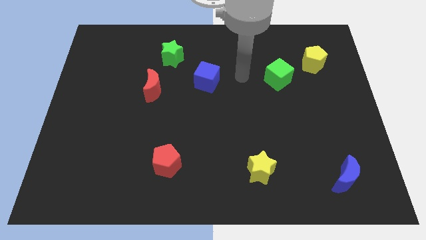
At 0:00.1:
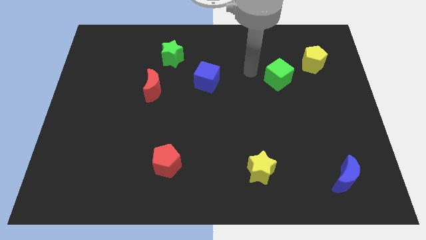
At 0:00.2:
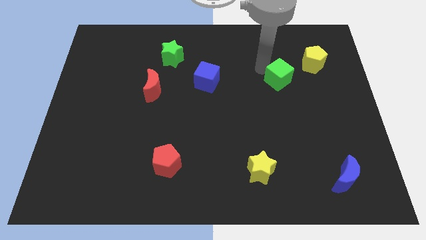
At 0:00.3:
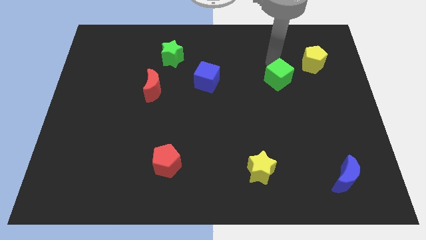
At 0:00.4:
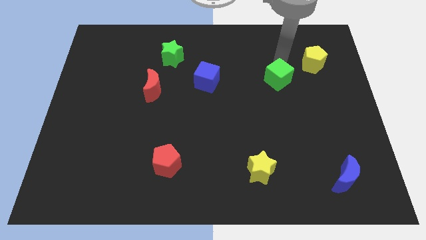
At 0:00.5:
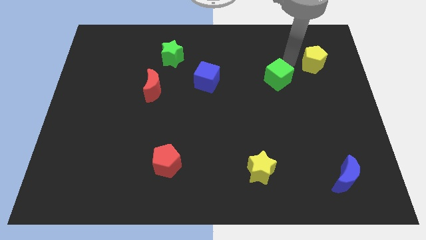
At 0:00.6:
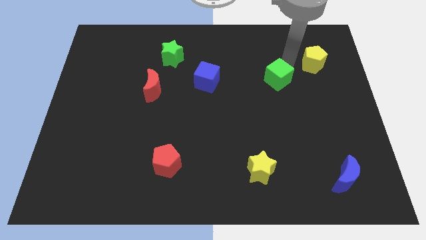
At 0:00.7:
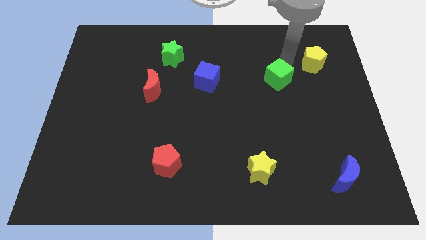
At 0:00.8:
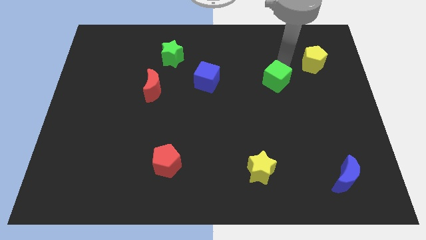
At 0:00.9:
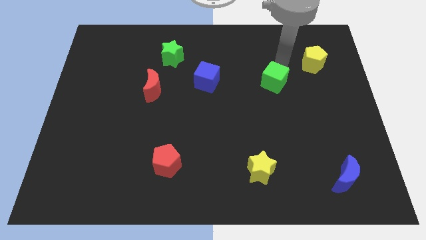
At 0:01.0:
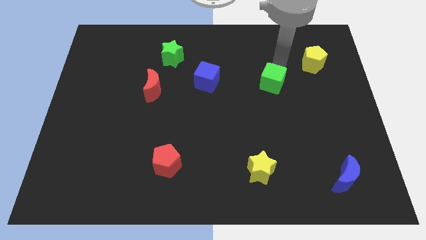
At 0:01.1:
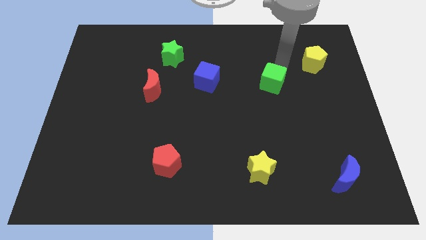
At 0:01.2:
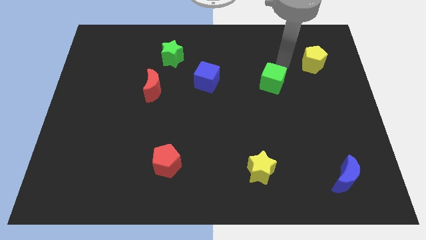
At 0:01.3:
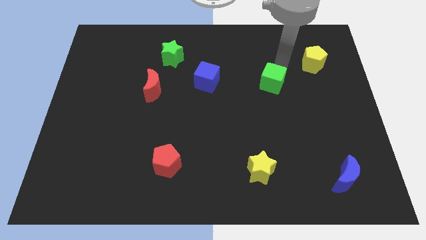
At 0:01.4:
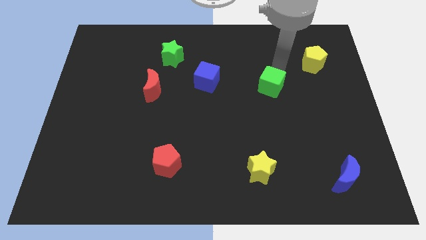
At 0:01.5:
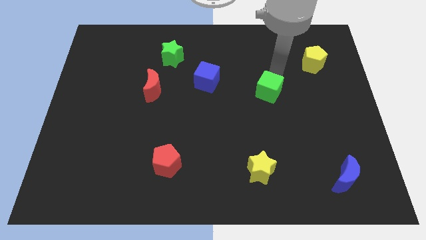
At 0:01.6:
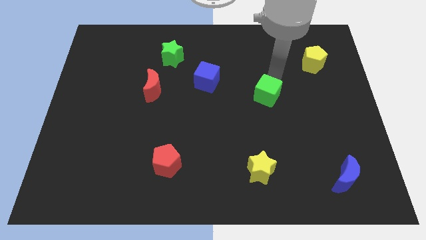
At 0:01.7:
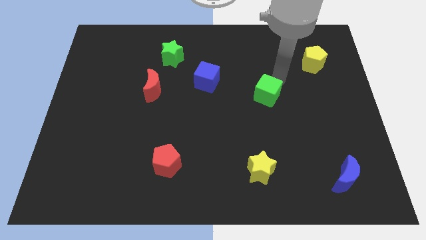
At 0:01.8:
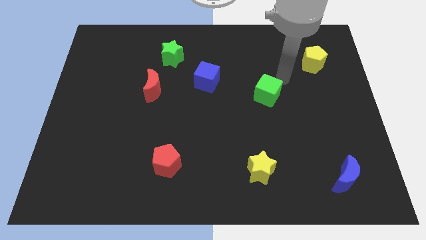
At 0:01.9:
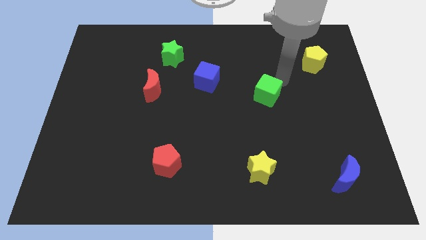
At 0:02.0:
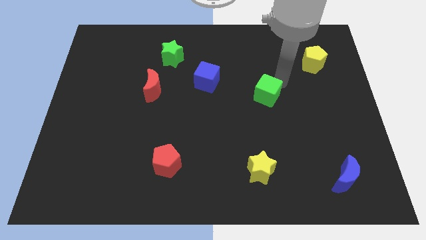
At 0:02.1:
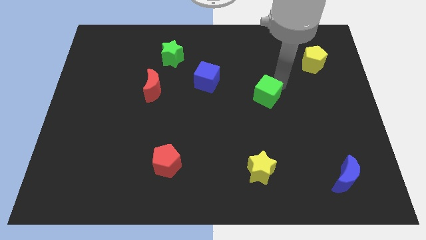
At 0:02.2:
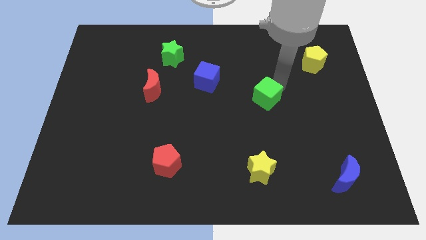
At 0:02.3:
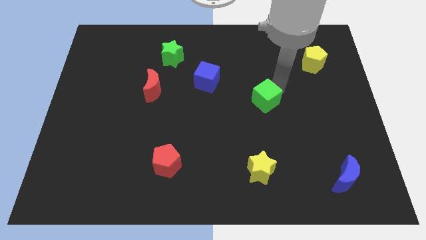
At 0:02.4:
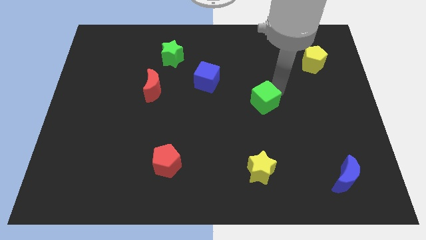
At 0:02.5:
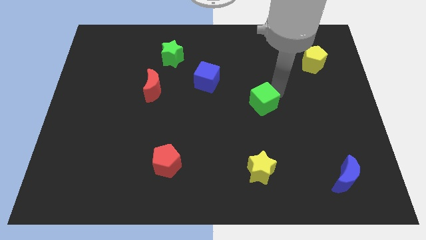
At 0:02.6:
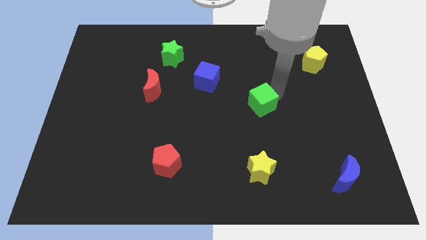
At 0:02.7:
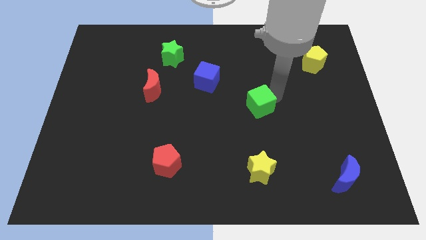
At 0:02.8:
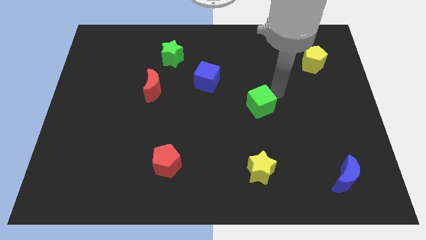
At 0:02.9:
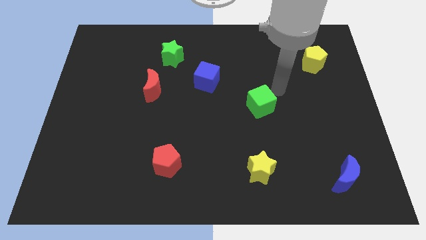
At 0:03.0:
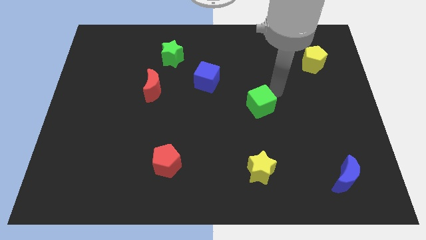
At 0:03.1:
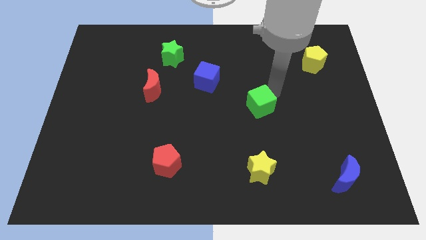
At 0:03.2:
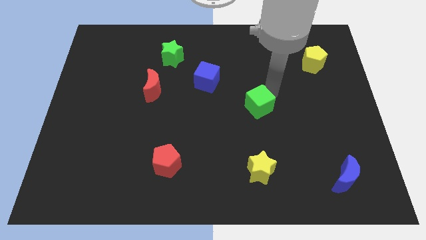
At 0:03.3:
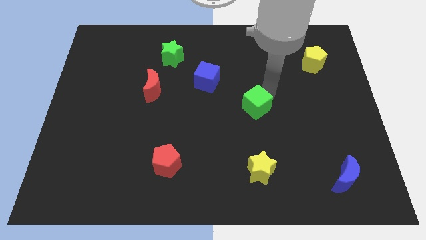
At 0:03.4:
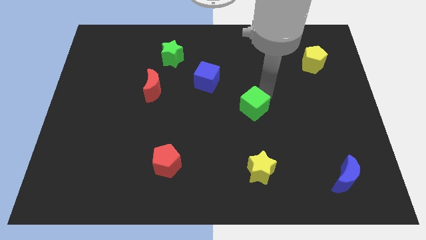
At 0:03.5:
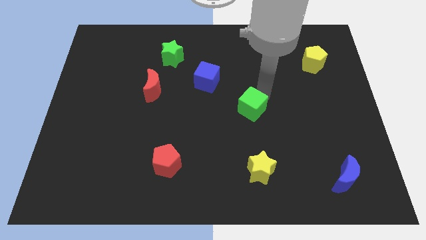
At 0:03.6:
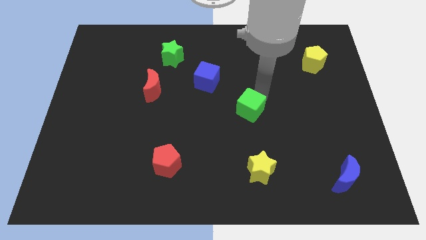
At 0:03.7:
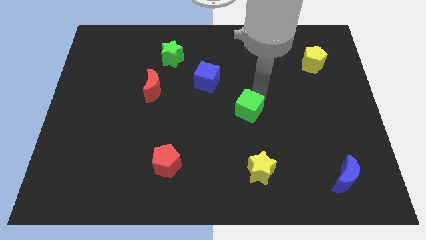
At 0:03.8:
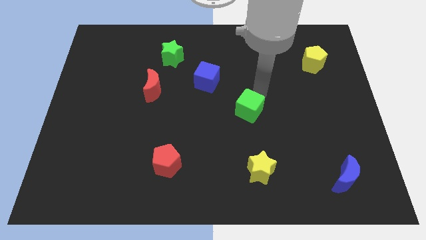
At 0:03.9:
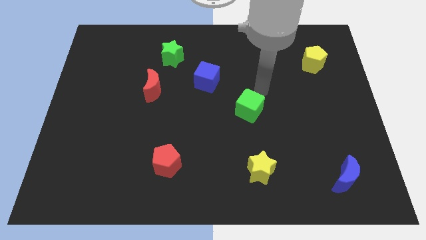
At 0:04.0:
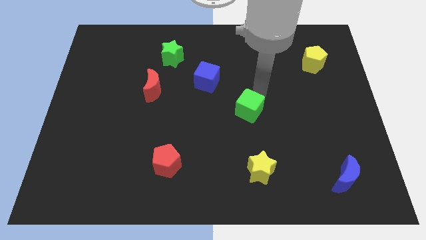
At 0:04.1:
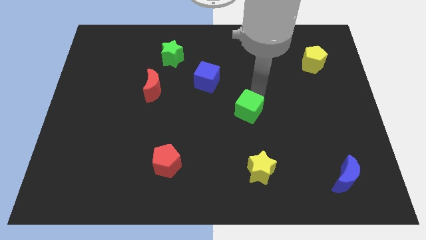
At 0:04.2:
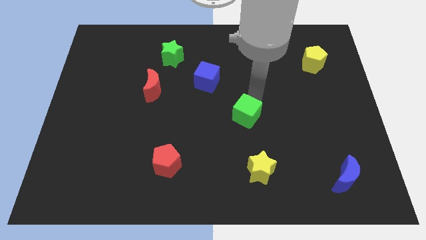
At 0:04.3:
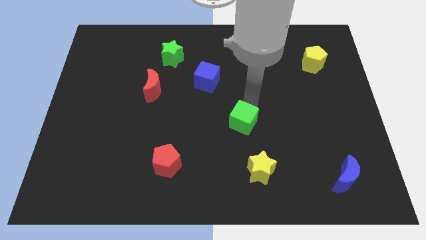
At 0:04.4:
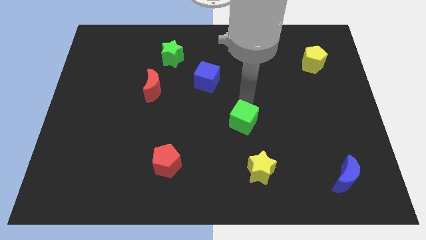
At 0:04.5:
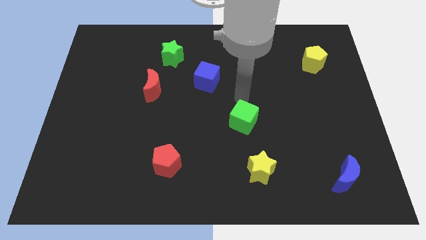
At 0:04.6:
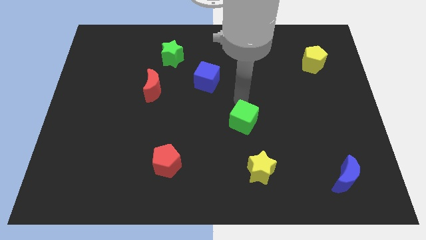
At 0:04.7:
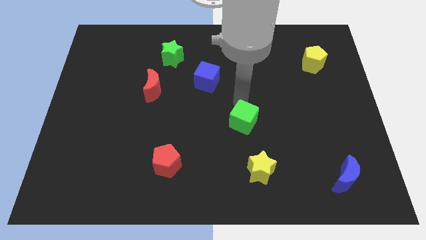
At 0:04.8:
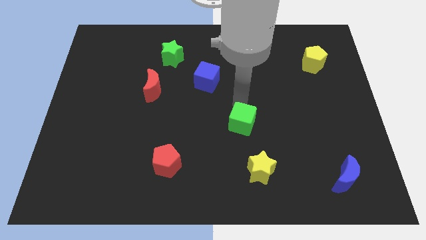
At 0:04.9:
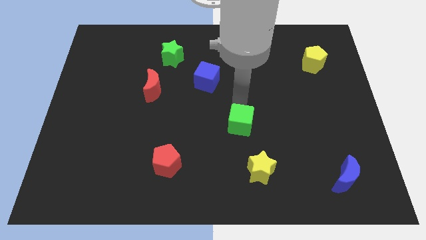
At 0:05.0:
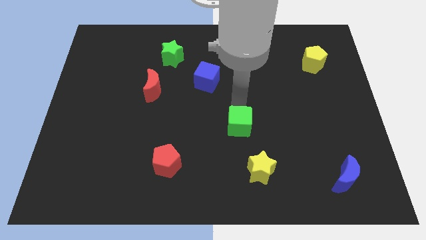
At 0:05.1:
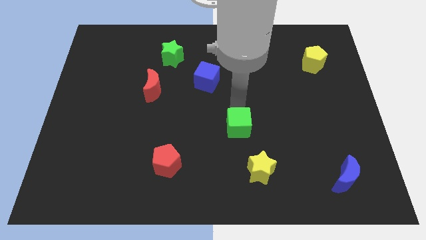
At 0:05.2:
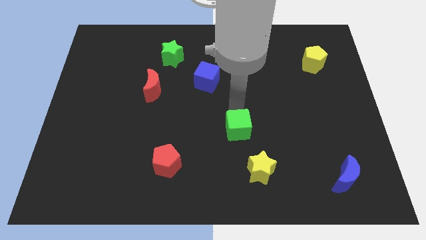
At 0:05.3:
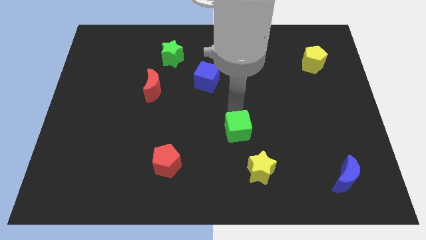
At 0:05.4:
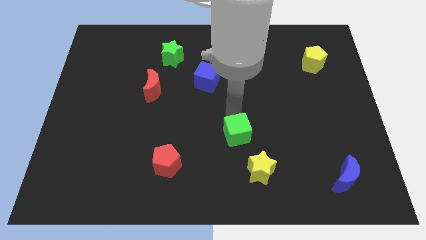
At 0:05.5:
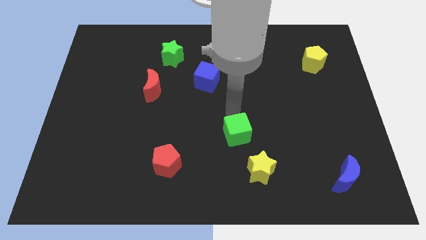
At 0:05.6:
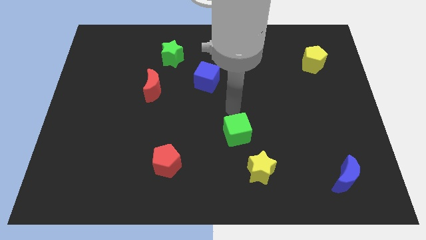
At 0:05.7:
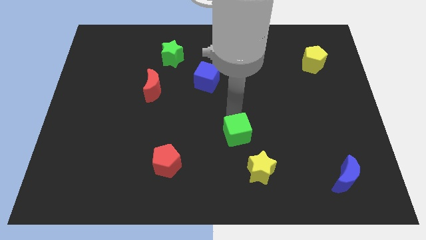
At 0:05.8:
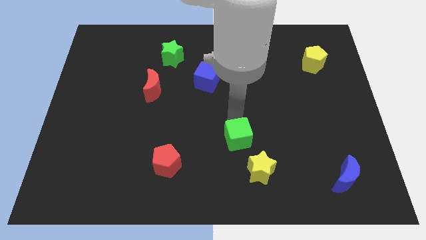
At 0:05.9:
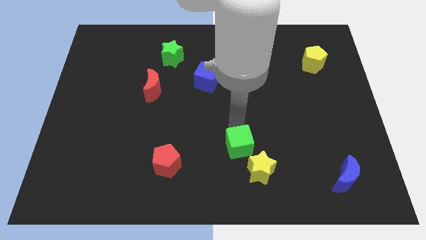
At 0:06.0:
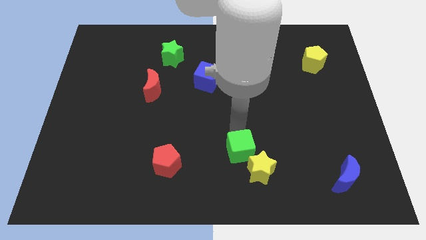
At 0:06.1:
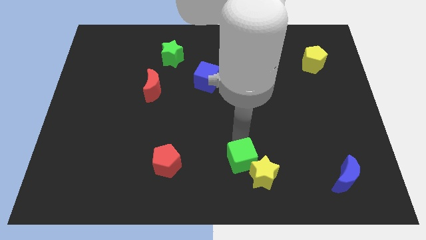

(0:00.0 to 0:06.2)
put the green cube to the bottom side
